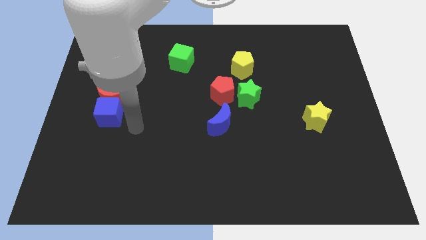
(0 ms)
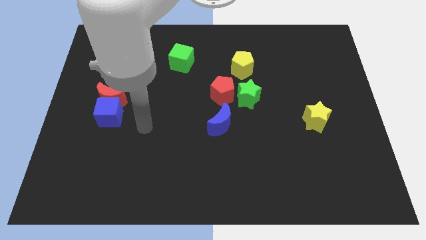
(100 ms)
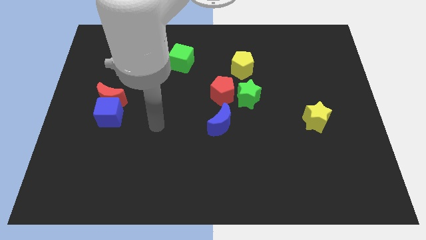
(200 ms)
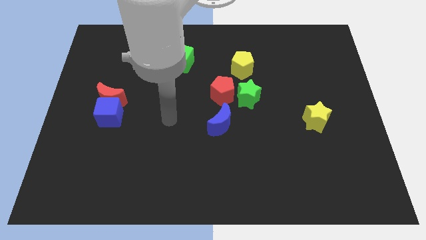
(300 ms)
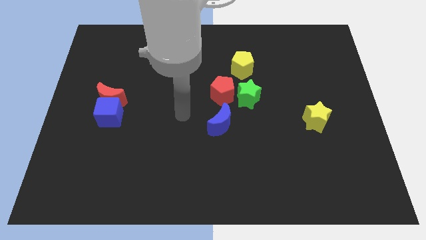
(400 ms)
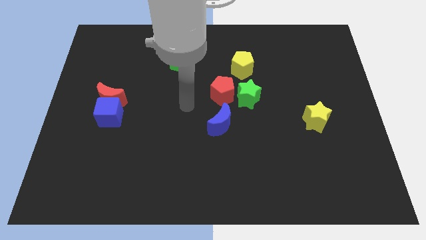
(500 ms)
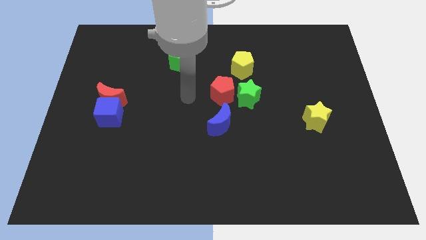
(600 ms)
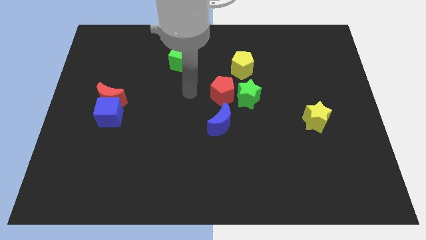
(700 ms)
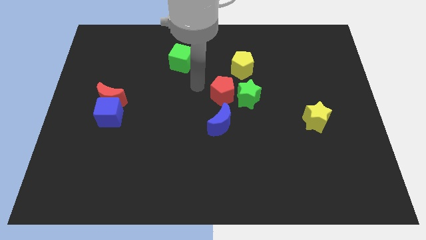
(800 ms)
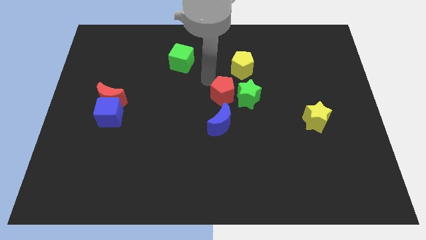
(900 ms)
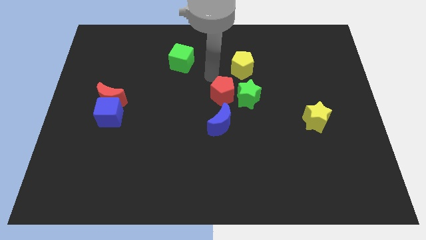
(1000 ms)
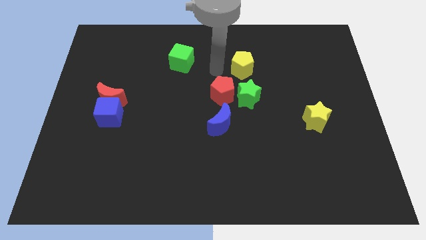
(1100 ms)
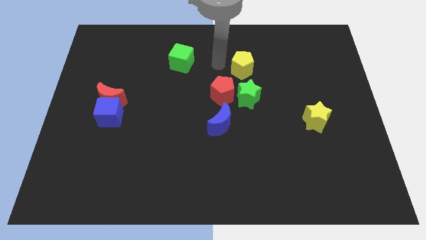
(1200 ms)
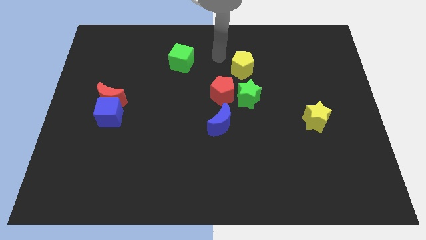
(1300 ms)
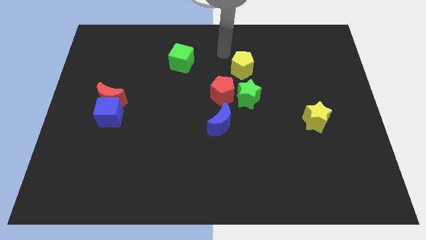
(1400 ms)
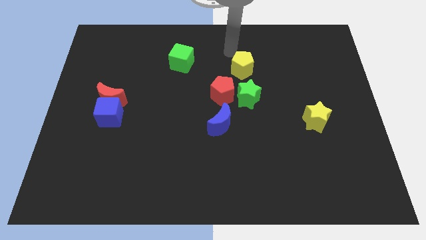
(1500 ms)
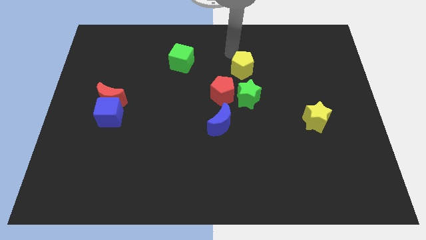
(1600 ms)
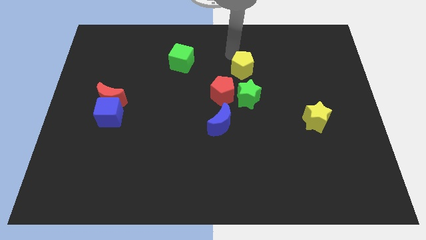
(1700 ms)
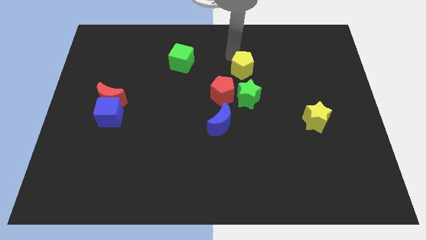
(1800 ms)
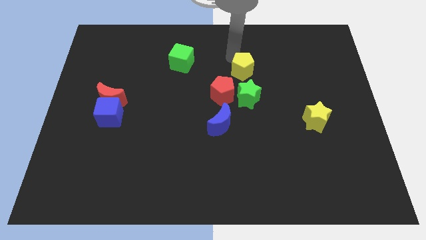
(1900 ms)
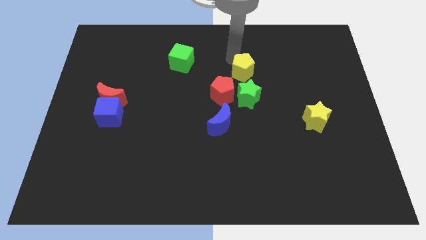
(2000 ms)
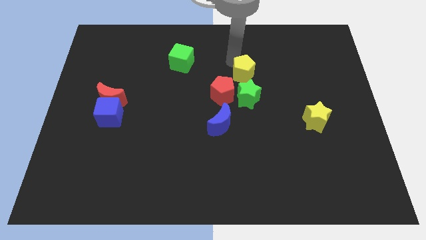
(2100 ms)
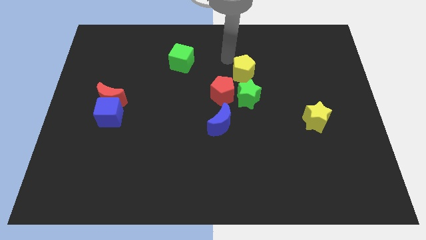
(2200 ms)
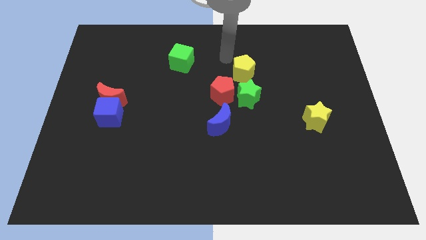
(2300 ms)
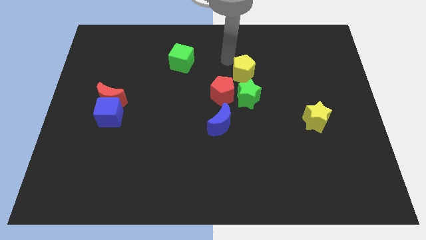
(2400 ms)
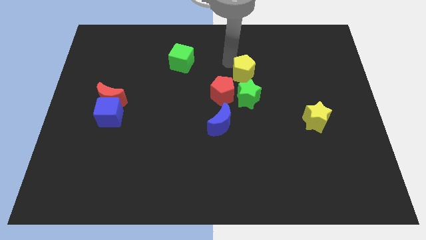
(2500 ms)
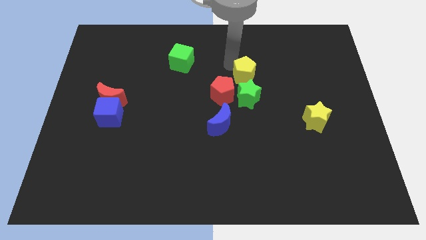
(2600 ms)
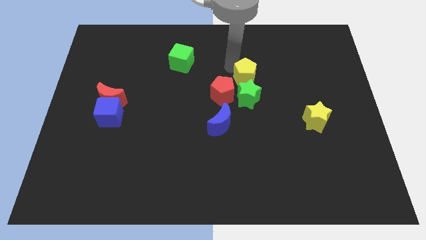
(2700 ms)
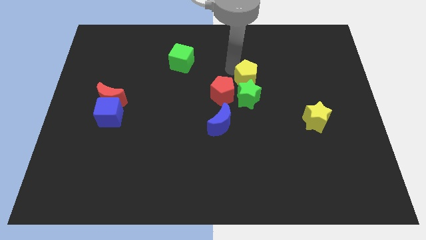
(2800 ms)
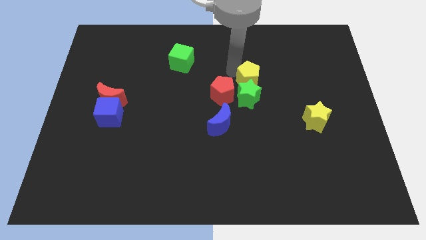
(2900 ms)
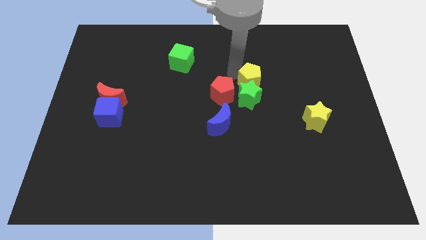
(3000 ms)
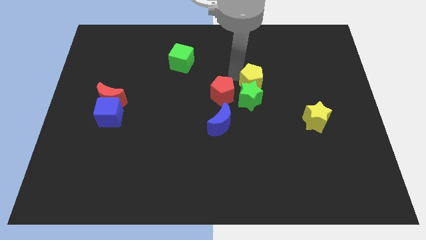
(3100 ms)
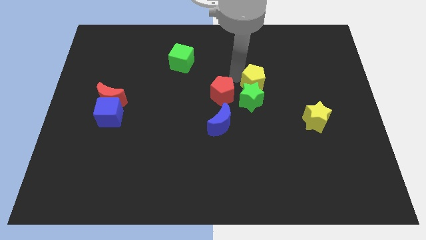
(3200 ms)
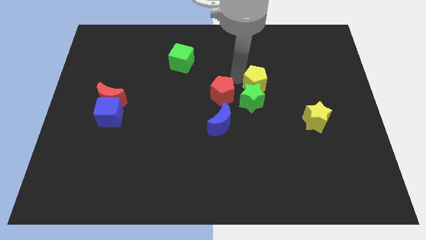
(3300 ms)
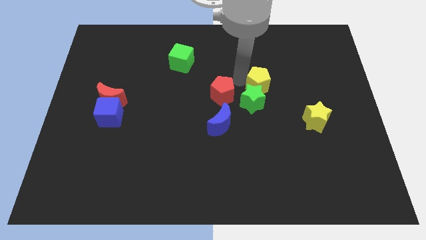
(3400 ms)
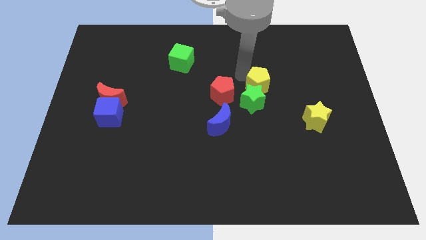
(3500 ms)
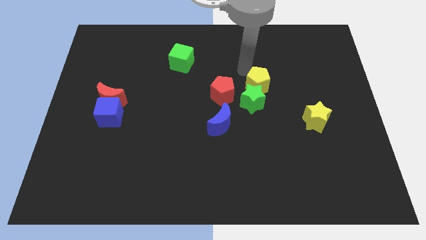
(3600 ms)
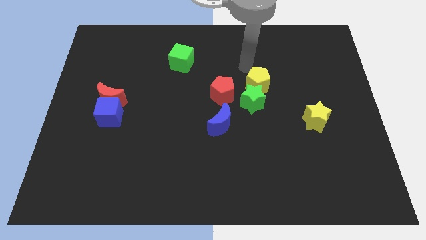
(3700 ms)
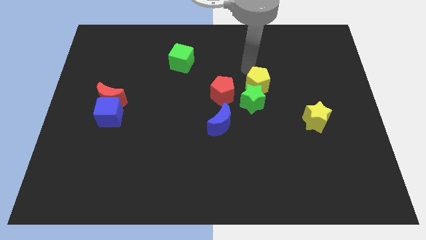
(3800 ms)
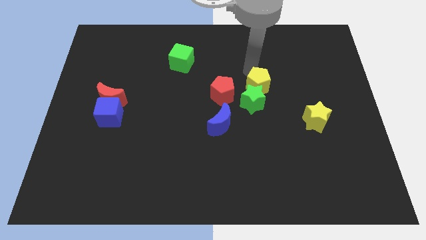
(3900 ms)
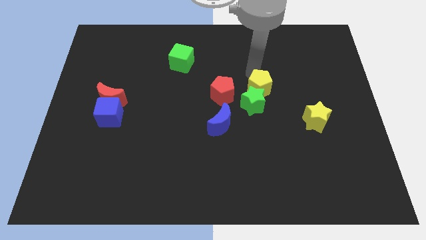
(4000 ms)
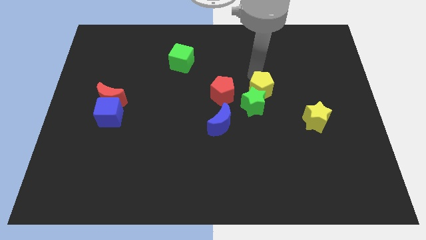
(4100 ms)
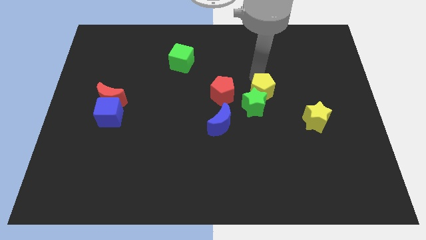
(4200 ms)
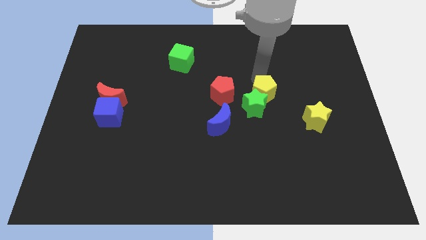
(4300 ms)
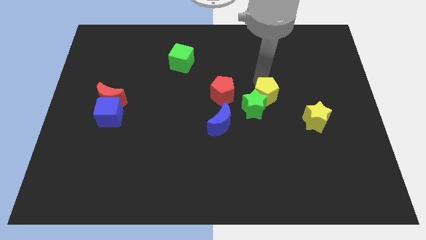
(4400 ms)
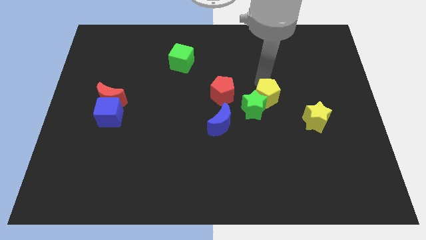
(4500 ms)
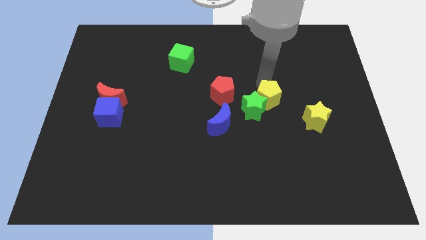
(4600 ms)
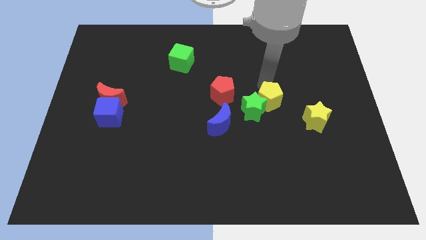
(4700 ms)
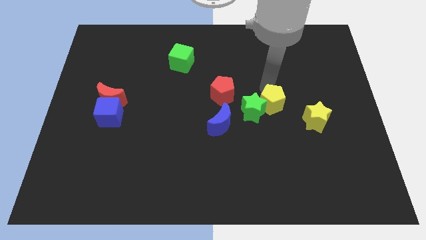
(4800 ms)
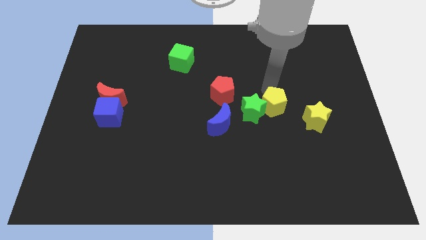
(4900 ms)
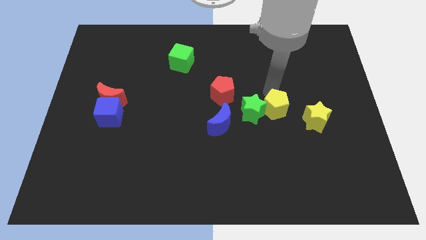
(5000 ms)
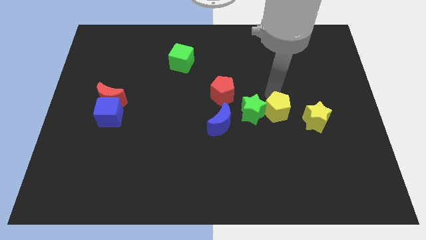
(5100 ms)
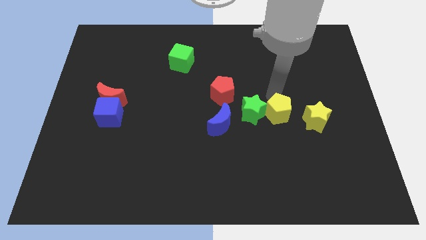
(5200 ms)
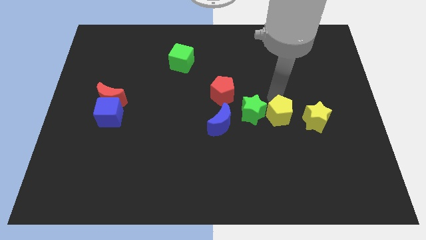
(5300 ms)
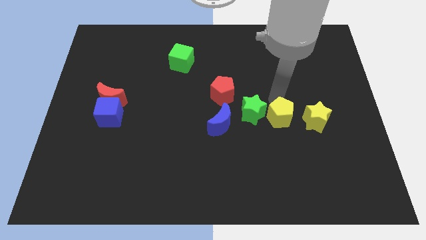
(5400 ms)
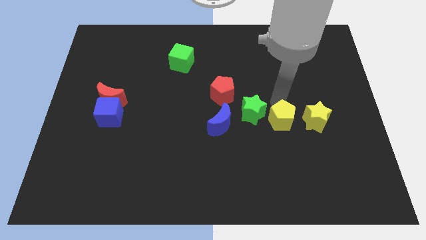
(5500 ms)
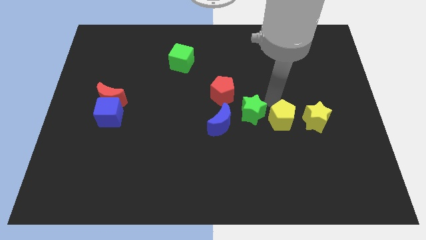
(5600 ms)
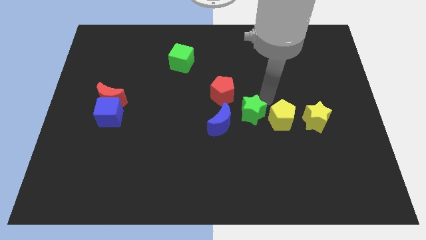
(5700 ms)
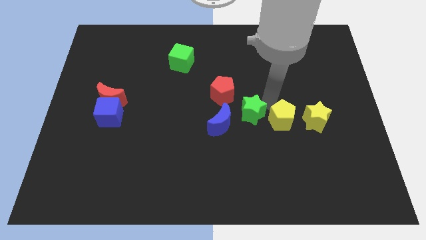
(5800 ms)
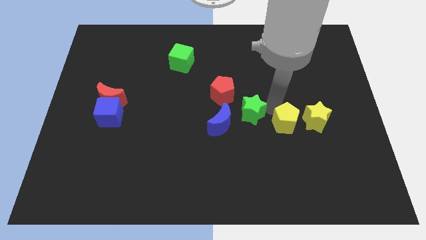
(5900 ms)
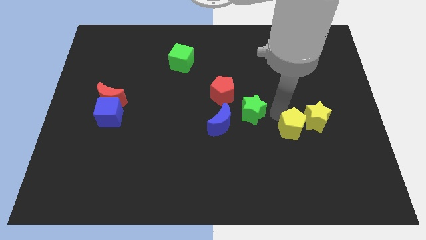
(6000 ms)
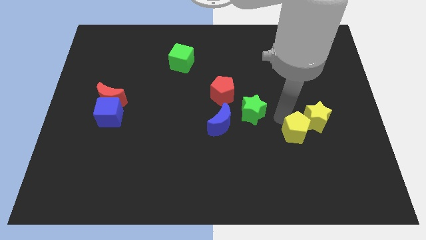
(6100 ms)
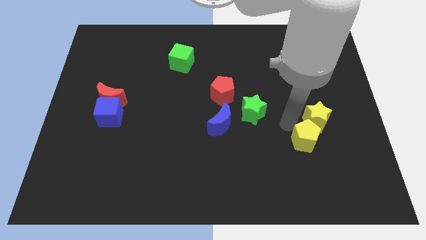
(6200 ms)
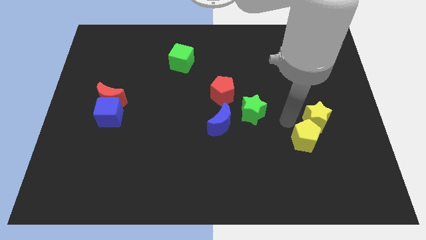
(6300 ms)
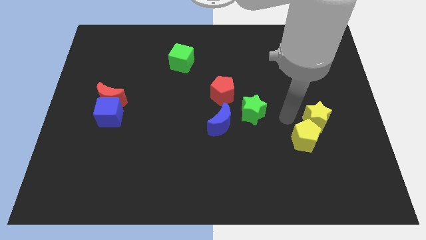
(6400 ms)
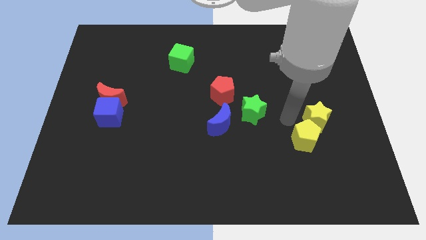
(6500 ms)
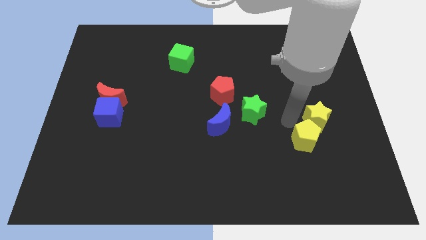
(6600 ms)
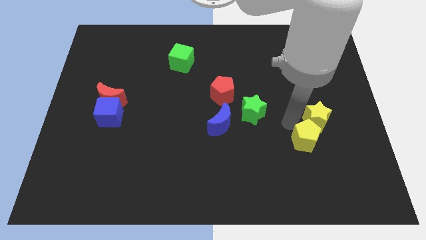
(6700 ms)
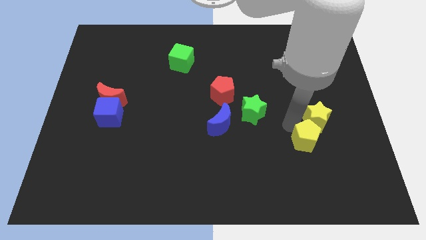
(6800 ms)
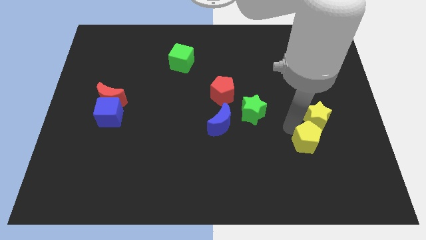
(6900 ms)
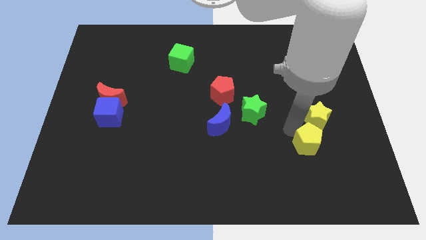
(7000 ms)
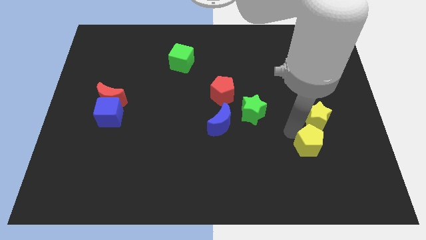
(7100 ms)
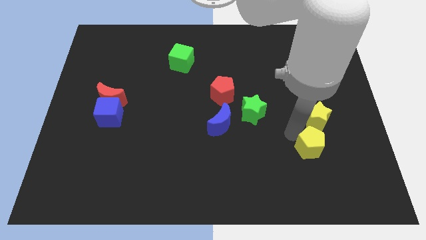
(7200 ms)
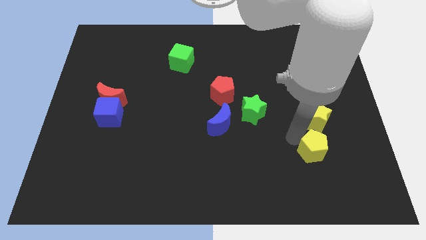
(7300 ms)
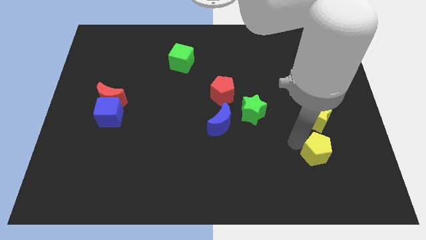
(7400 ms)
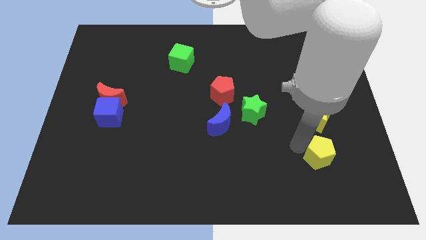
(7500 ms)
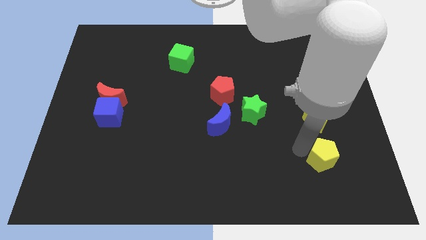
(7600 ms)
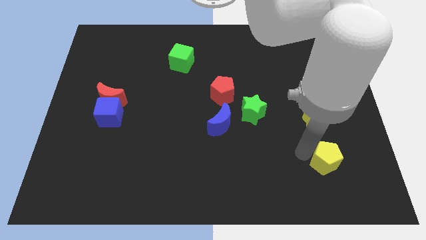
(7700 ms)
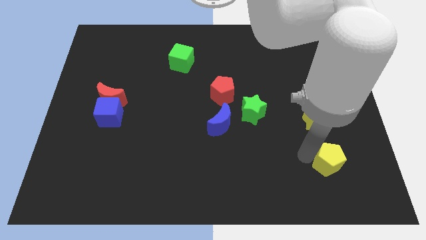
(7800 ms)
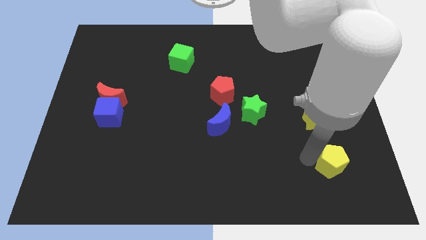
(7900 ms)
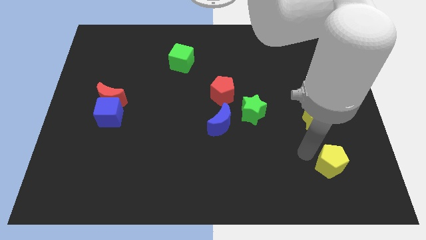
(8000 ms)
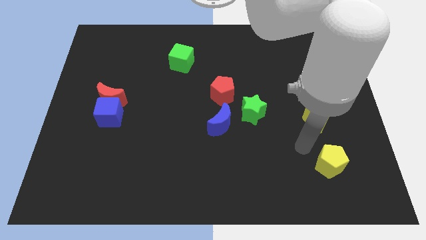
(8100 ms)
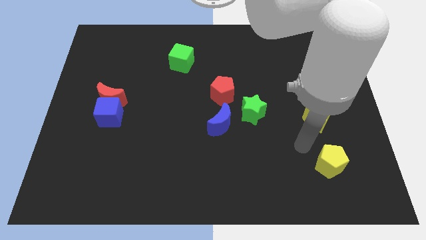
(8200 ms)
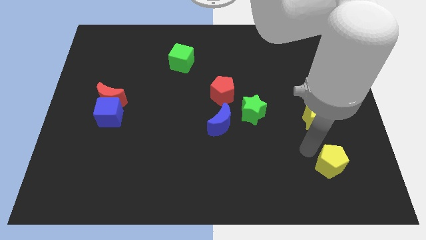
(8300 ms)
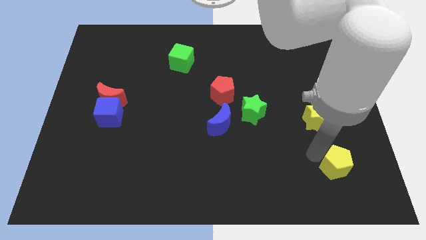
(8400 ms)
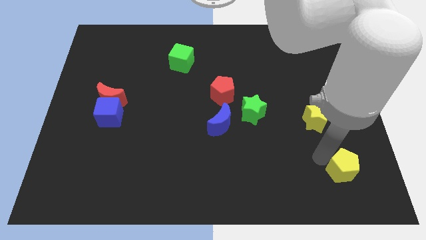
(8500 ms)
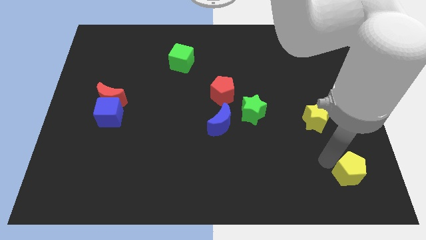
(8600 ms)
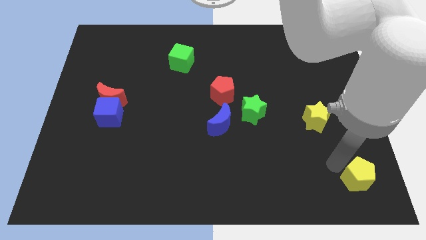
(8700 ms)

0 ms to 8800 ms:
move the yellow pentagon to the bottom right corner
